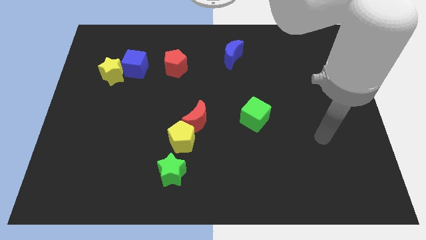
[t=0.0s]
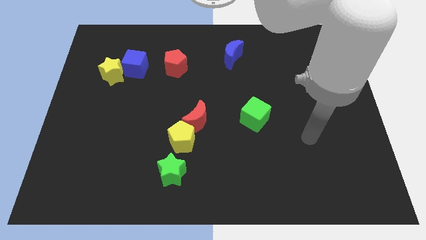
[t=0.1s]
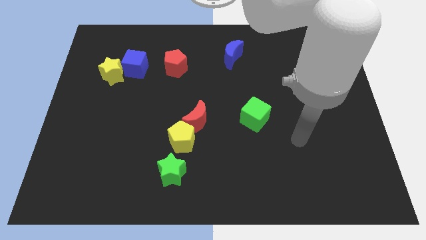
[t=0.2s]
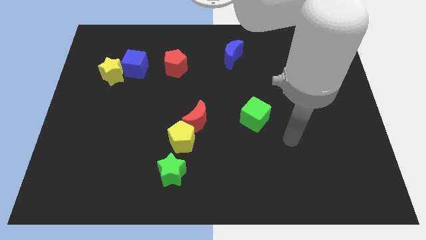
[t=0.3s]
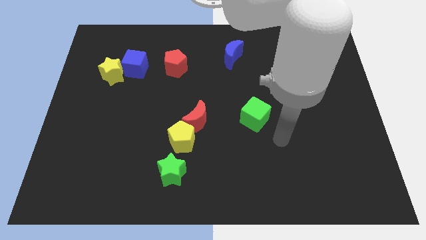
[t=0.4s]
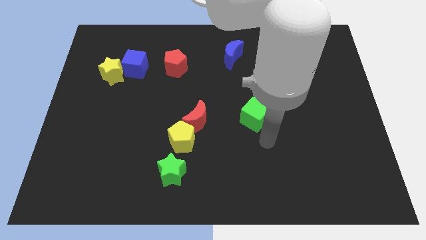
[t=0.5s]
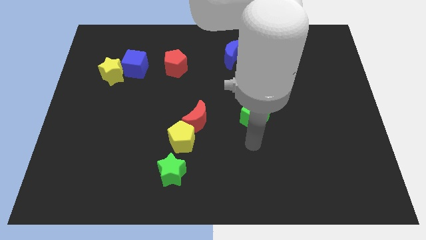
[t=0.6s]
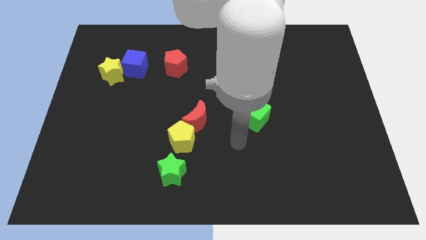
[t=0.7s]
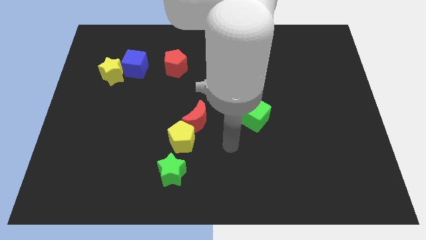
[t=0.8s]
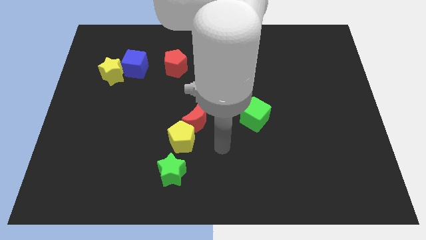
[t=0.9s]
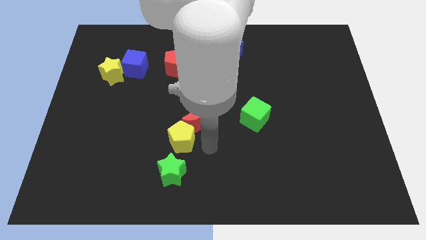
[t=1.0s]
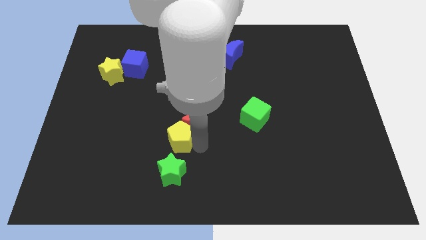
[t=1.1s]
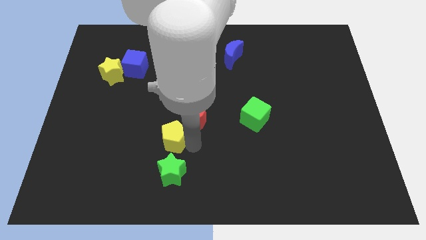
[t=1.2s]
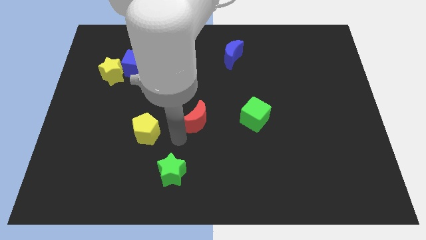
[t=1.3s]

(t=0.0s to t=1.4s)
separate the red moon from the yellow pentagon

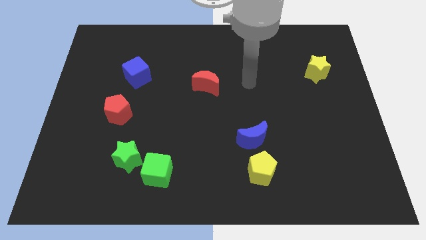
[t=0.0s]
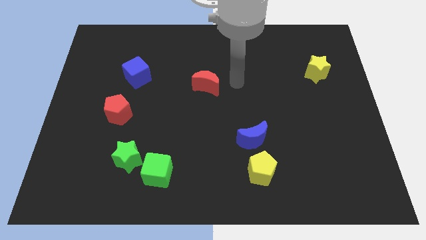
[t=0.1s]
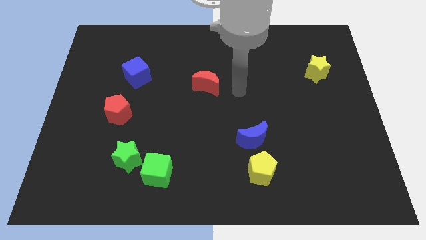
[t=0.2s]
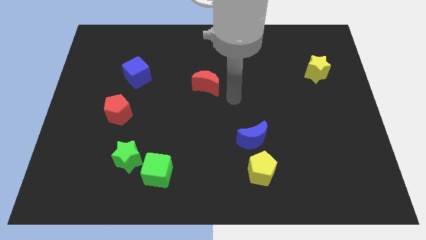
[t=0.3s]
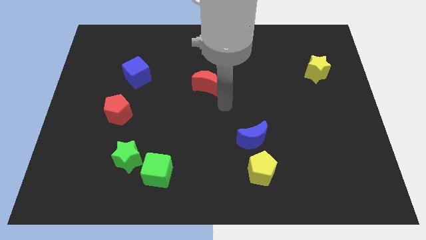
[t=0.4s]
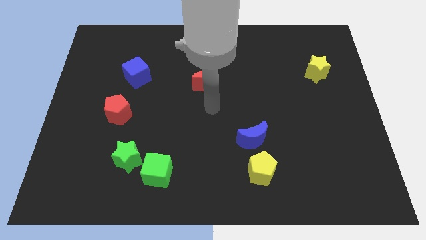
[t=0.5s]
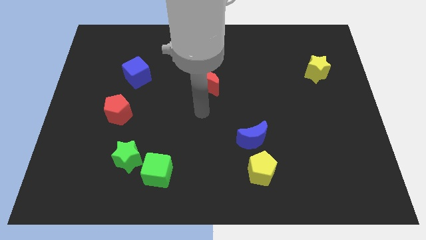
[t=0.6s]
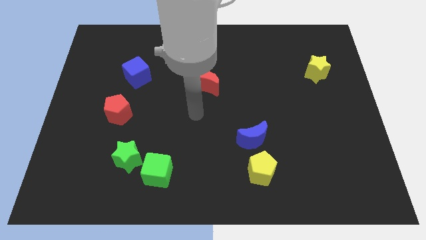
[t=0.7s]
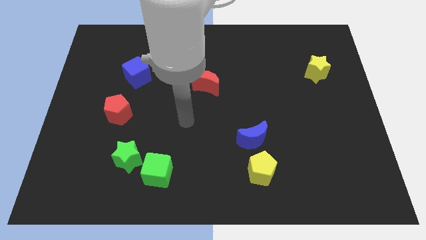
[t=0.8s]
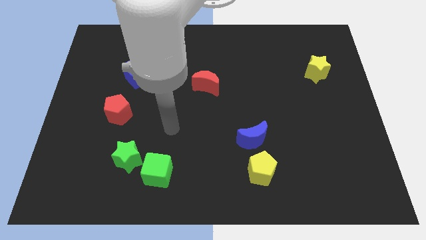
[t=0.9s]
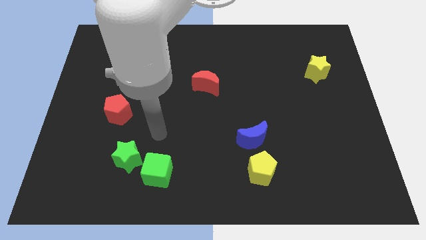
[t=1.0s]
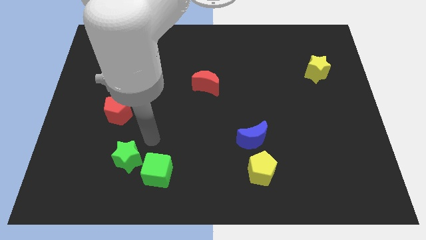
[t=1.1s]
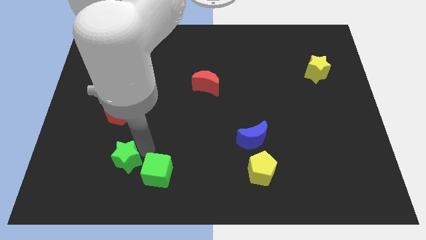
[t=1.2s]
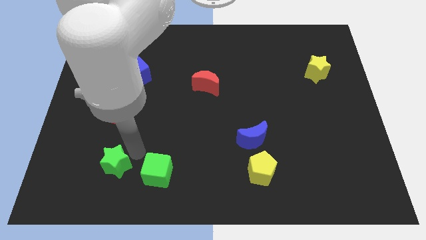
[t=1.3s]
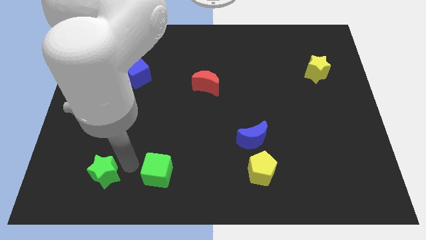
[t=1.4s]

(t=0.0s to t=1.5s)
pull the green cube apart from the green star

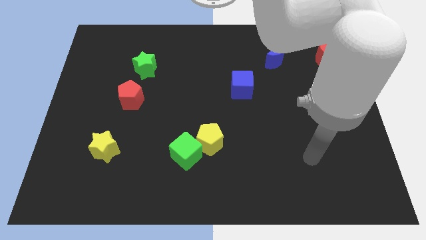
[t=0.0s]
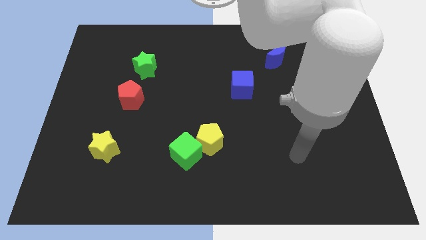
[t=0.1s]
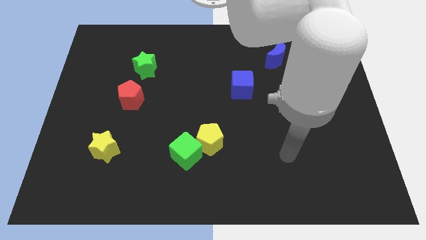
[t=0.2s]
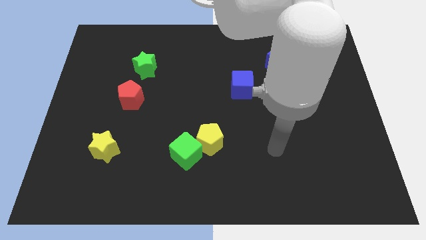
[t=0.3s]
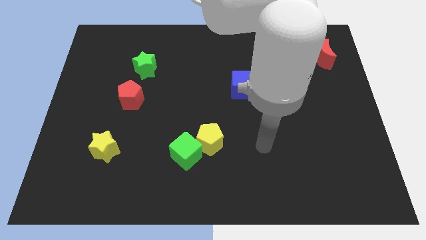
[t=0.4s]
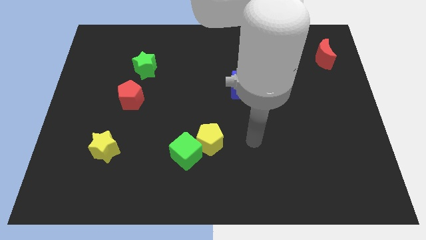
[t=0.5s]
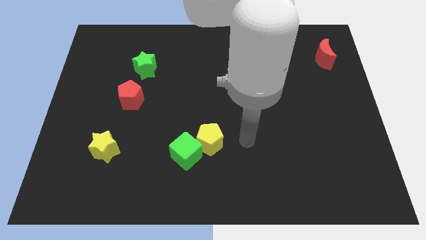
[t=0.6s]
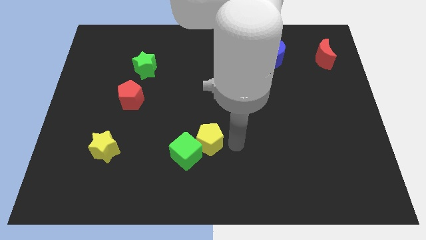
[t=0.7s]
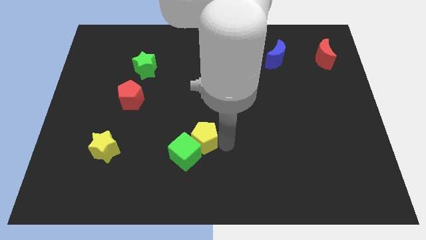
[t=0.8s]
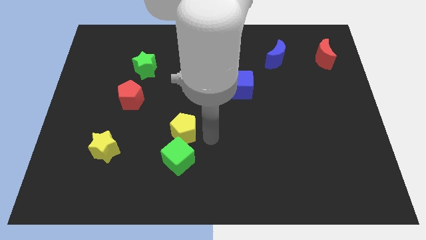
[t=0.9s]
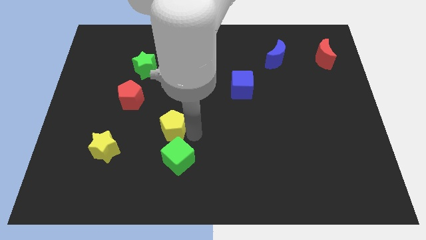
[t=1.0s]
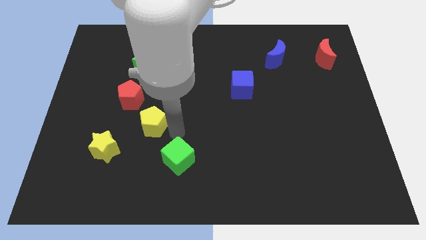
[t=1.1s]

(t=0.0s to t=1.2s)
move the green cube away from the yellow pentagon

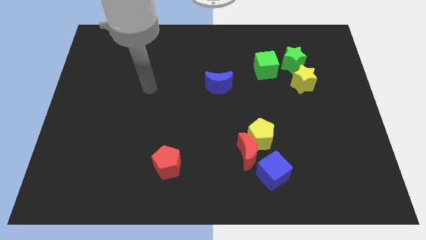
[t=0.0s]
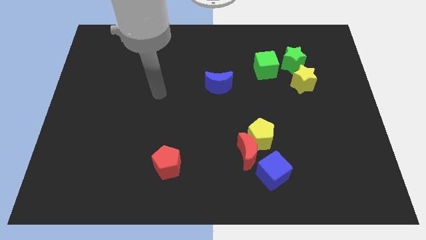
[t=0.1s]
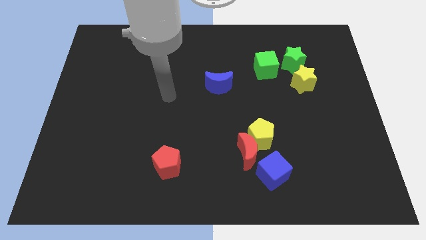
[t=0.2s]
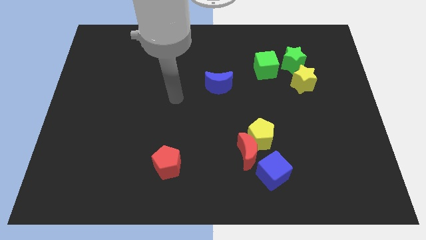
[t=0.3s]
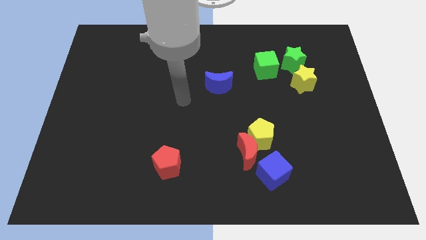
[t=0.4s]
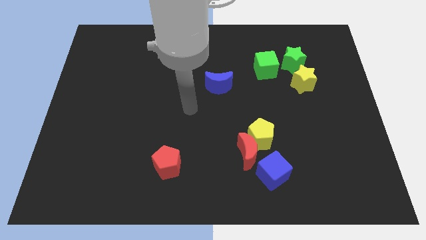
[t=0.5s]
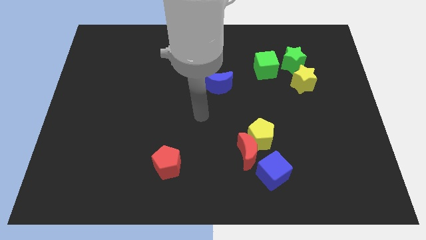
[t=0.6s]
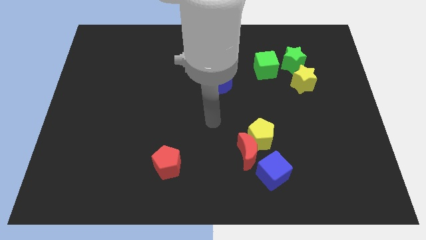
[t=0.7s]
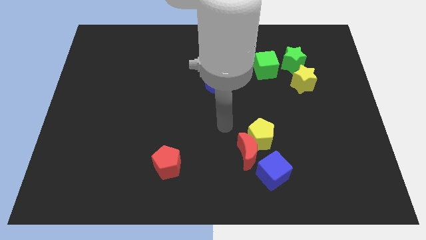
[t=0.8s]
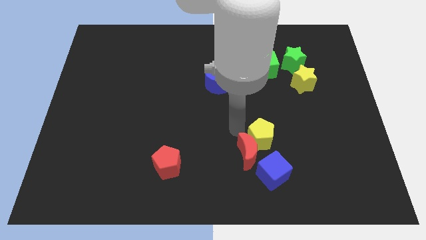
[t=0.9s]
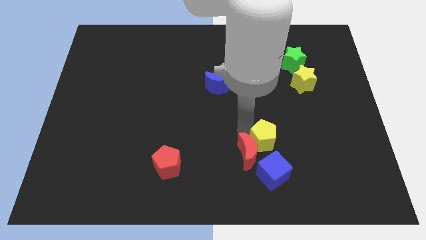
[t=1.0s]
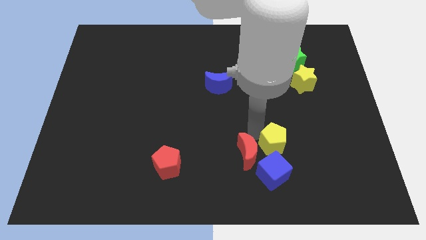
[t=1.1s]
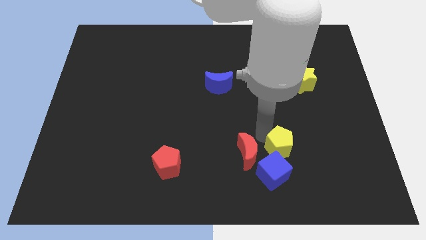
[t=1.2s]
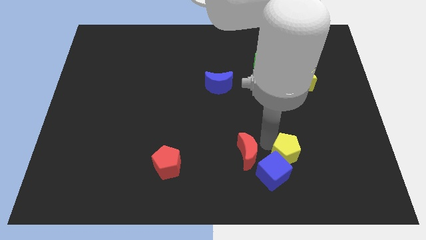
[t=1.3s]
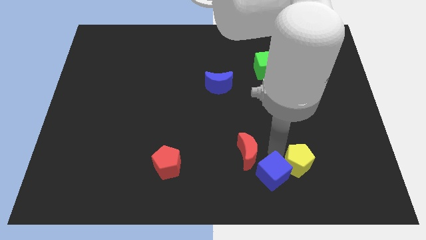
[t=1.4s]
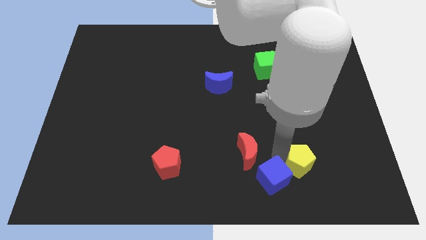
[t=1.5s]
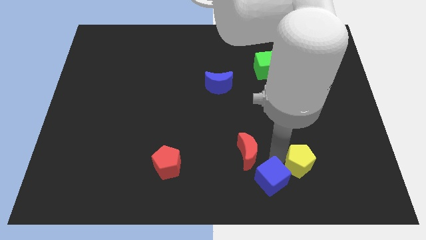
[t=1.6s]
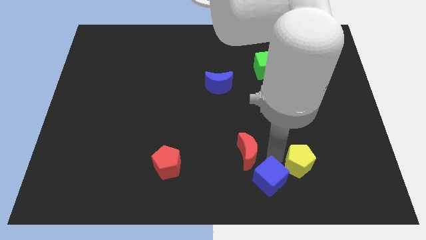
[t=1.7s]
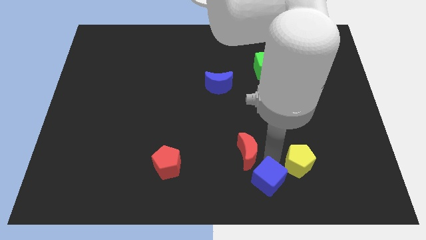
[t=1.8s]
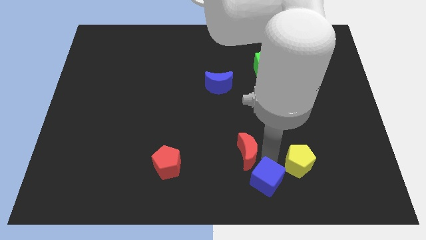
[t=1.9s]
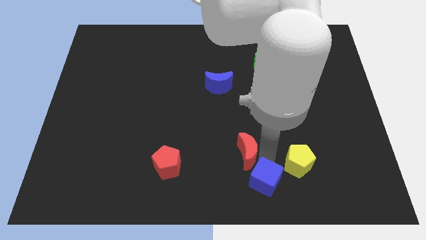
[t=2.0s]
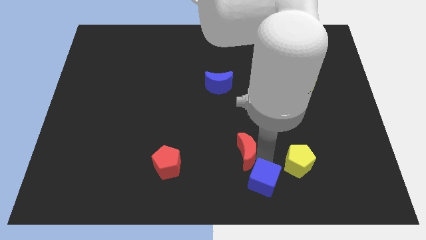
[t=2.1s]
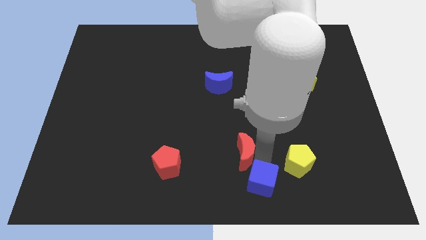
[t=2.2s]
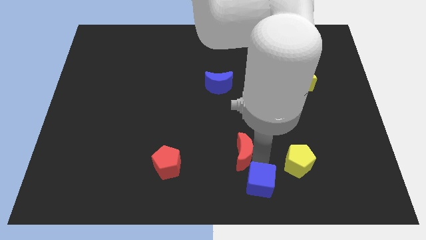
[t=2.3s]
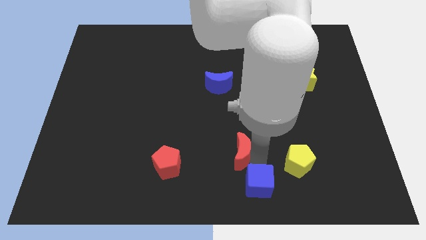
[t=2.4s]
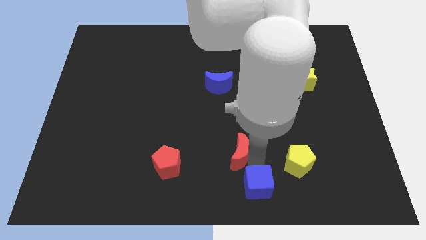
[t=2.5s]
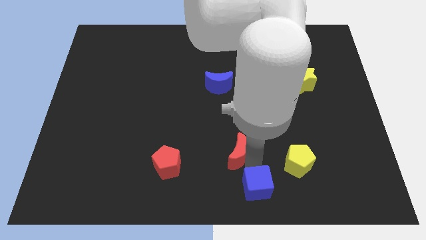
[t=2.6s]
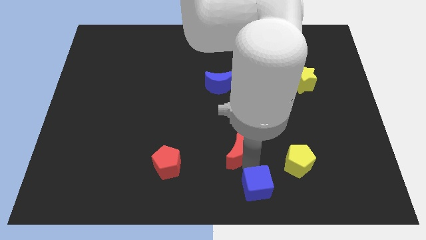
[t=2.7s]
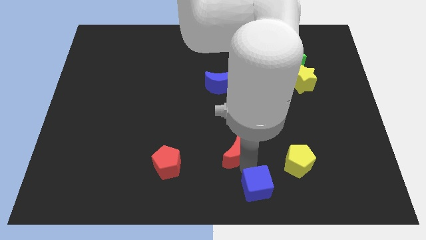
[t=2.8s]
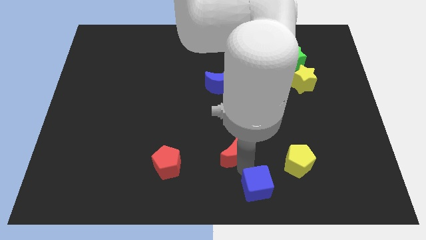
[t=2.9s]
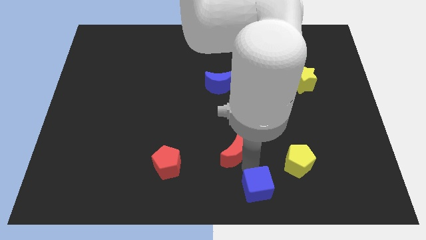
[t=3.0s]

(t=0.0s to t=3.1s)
pull the red moon apart from the yellow pentagon and blue cube

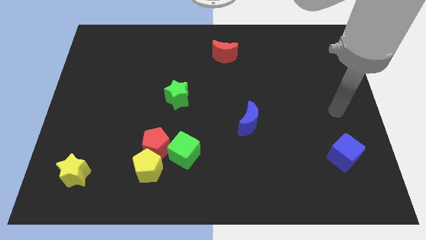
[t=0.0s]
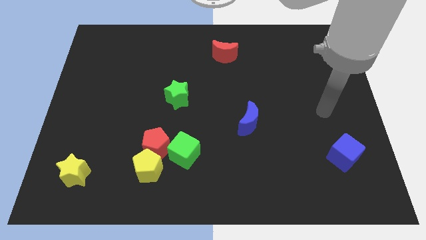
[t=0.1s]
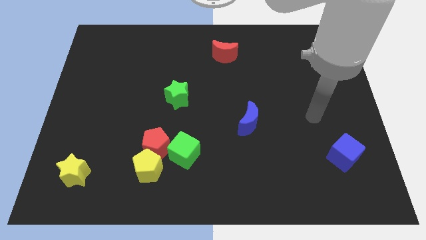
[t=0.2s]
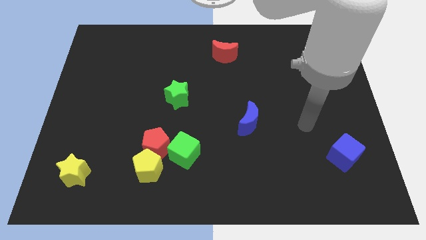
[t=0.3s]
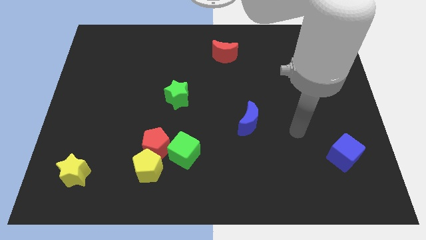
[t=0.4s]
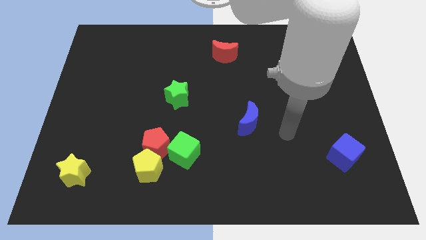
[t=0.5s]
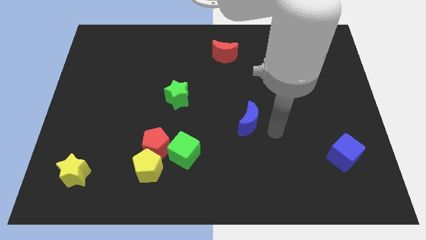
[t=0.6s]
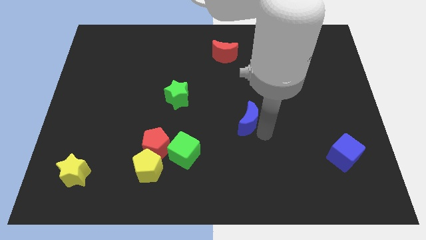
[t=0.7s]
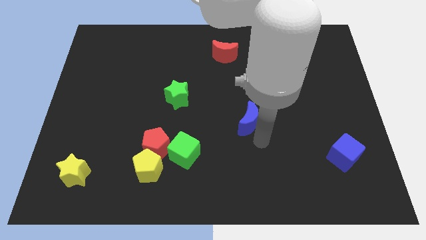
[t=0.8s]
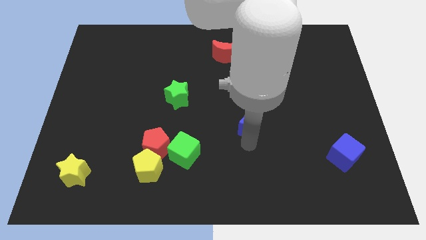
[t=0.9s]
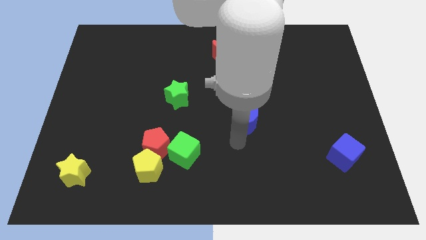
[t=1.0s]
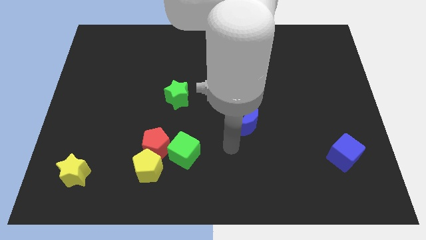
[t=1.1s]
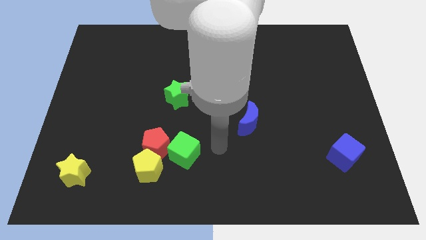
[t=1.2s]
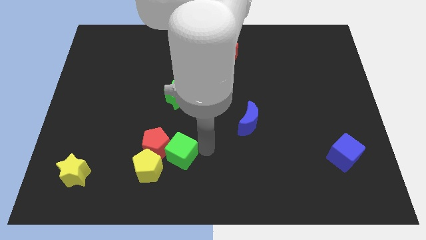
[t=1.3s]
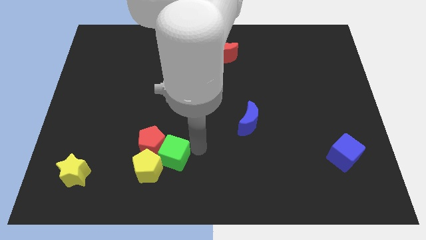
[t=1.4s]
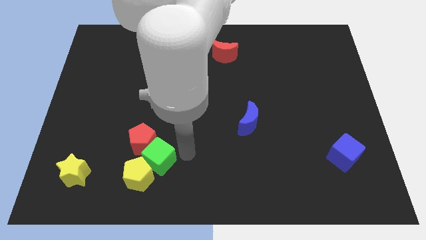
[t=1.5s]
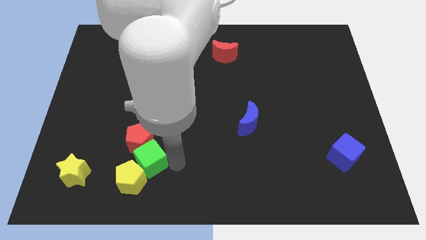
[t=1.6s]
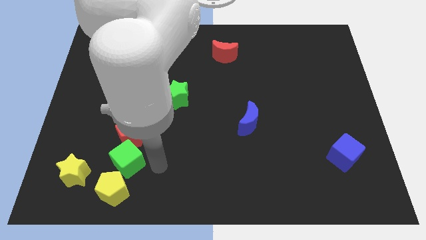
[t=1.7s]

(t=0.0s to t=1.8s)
move the red pentagon away from the yellow pentagon and green cube

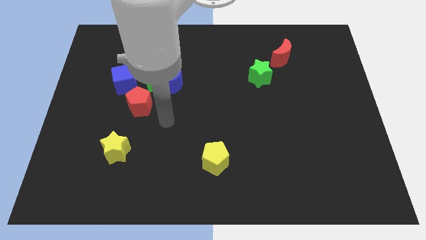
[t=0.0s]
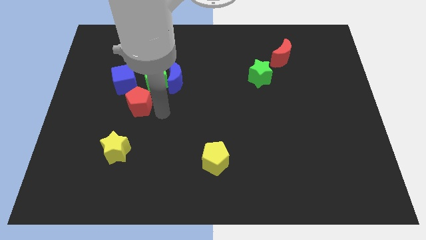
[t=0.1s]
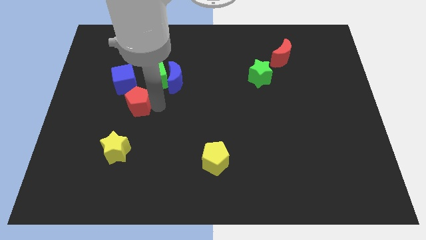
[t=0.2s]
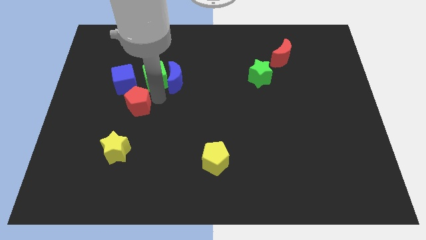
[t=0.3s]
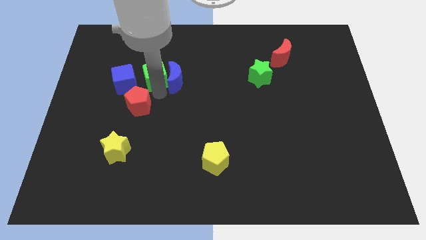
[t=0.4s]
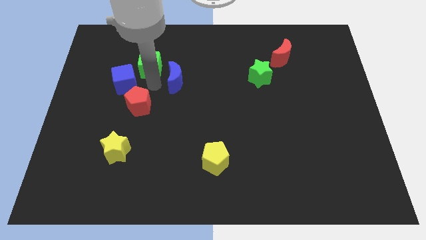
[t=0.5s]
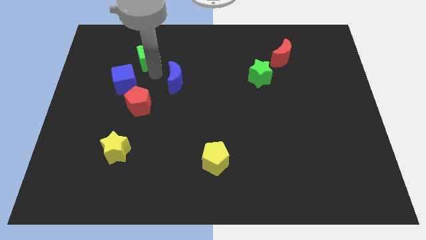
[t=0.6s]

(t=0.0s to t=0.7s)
separate the blue moon from the green cube
